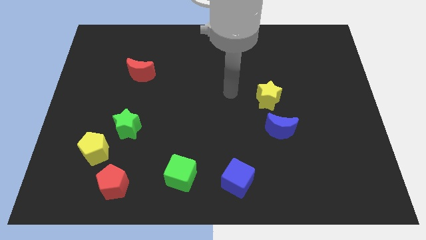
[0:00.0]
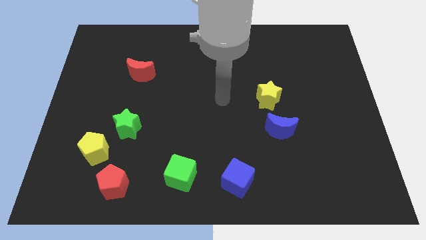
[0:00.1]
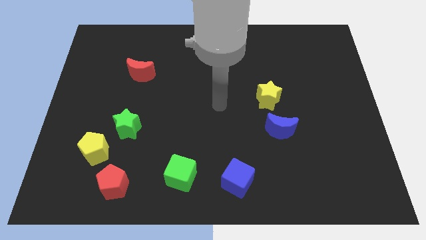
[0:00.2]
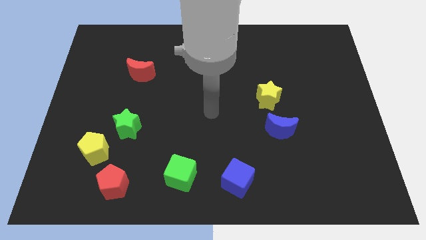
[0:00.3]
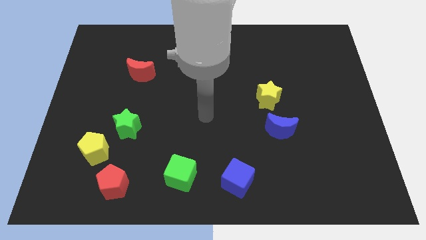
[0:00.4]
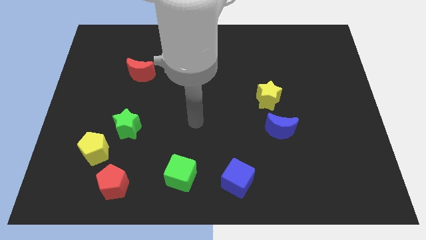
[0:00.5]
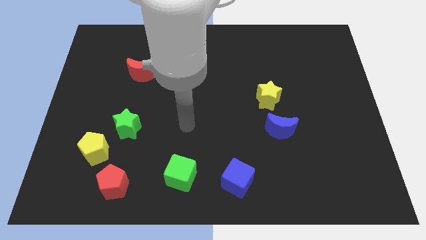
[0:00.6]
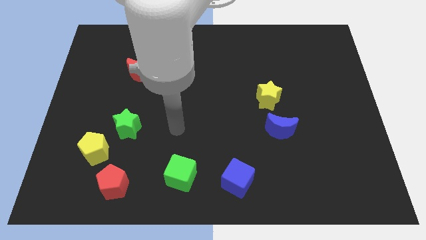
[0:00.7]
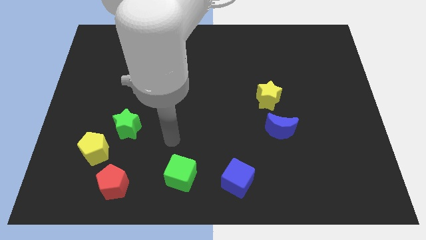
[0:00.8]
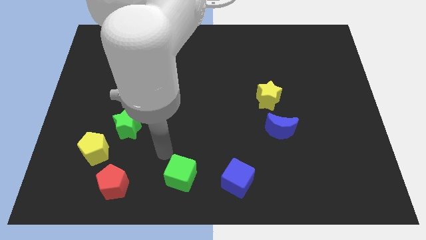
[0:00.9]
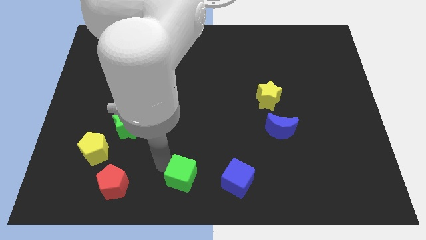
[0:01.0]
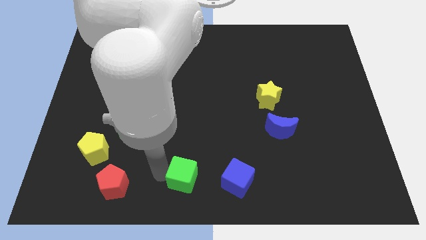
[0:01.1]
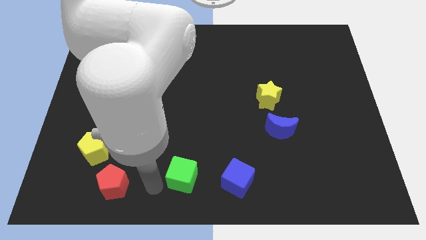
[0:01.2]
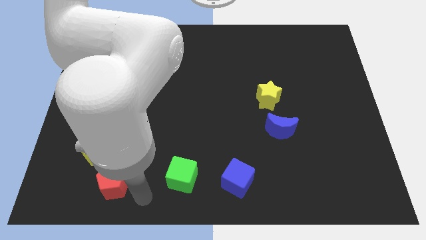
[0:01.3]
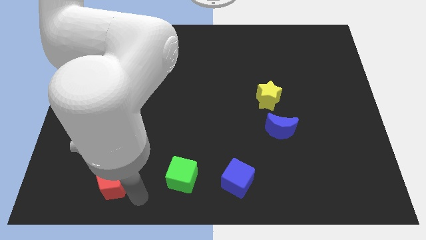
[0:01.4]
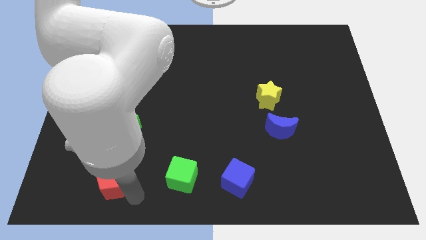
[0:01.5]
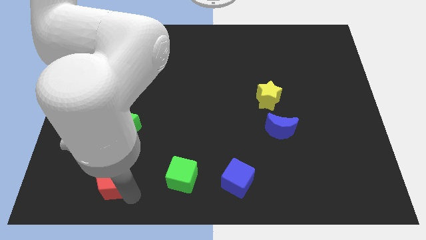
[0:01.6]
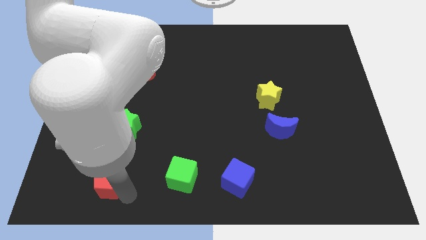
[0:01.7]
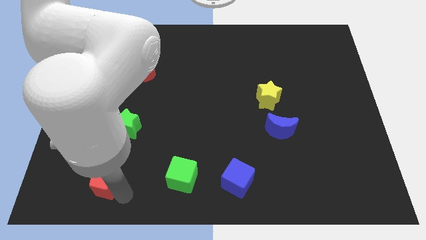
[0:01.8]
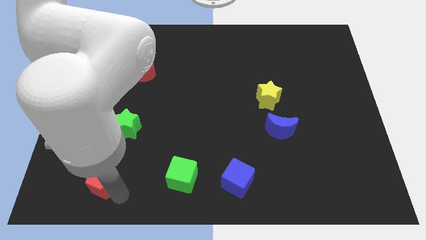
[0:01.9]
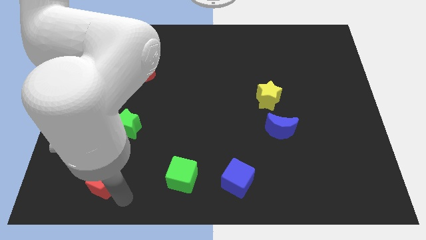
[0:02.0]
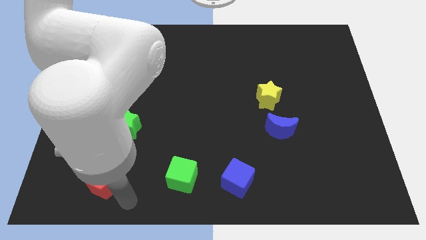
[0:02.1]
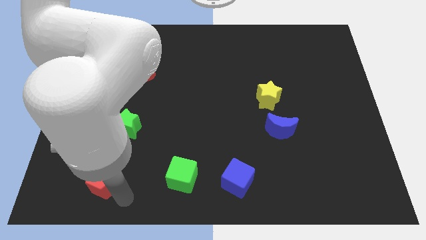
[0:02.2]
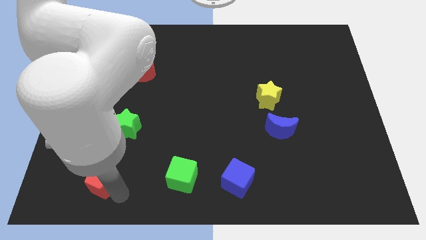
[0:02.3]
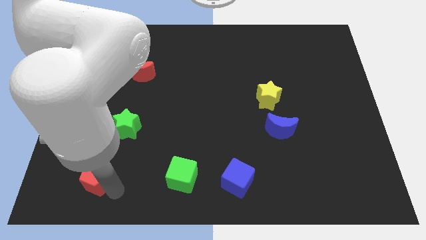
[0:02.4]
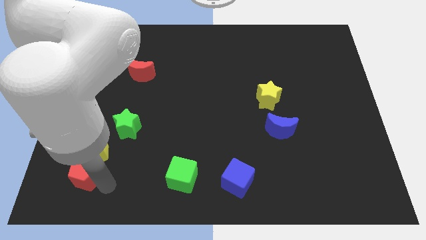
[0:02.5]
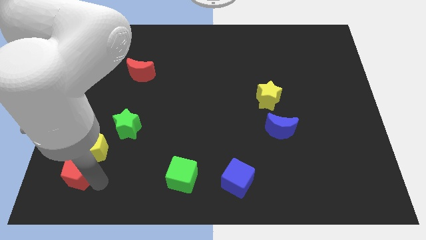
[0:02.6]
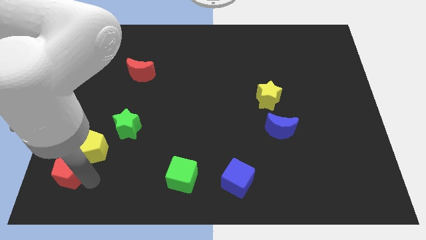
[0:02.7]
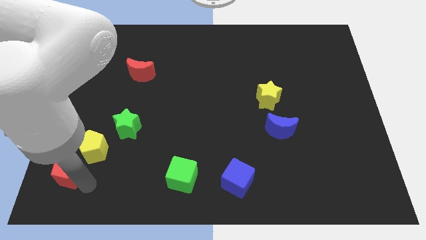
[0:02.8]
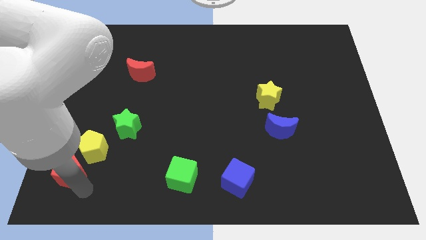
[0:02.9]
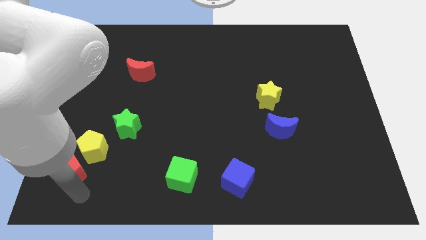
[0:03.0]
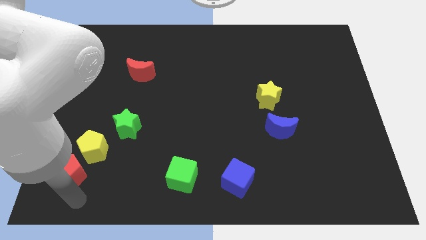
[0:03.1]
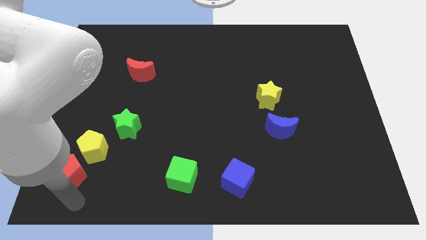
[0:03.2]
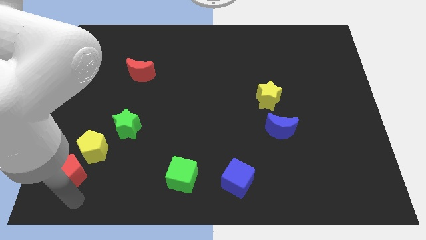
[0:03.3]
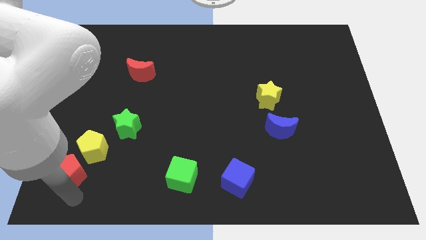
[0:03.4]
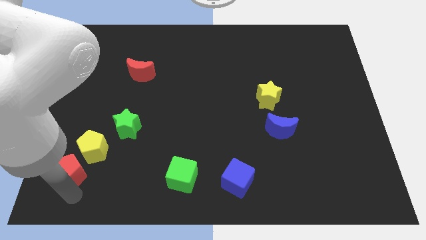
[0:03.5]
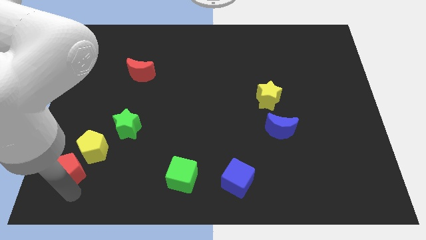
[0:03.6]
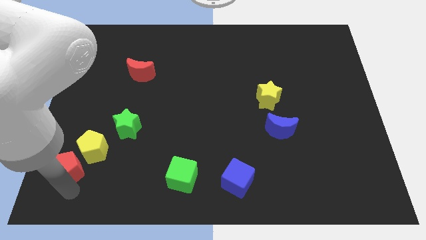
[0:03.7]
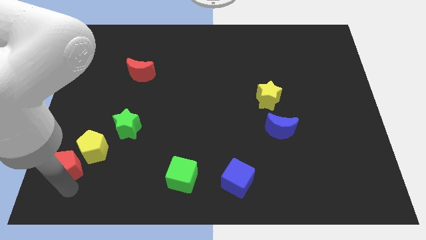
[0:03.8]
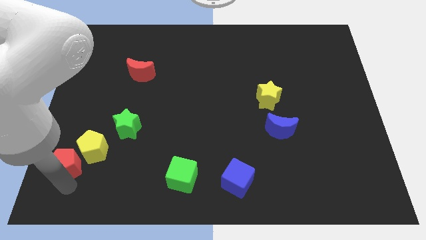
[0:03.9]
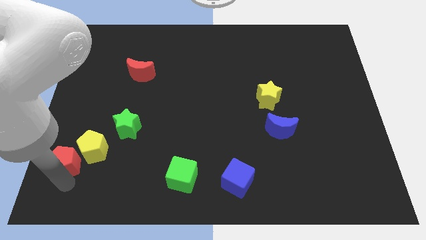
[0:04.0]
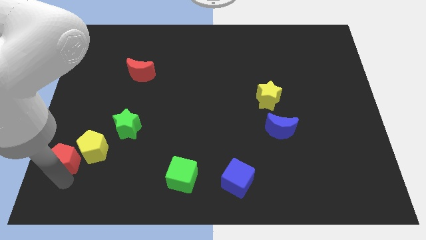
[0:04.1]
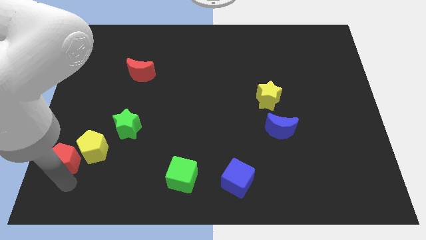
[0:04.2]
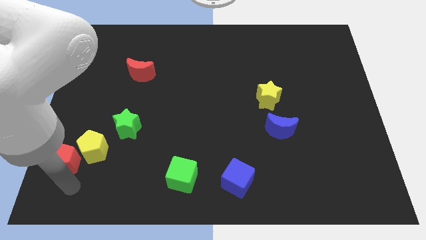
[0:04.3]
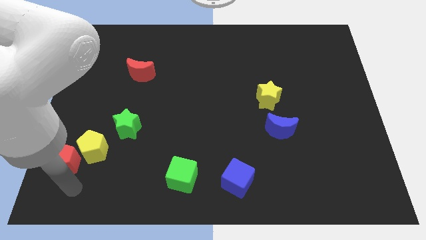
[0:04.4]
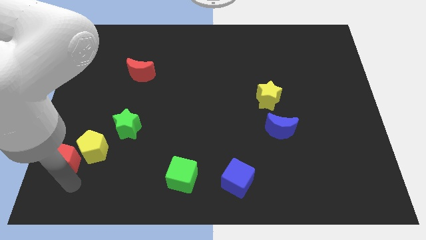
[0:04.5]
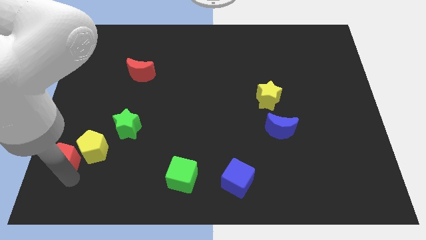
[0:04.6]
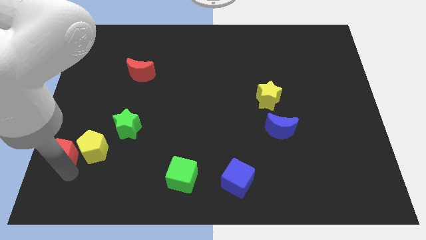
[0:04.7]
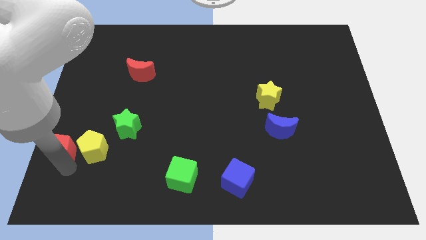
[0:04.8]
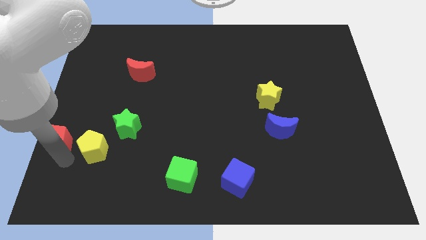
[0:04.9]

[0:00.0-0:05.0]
slide the red pentagon to the left side of the board

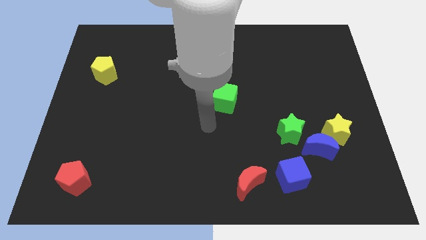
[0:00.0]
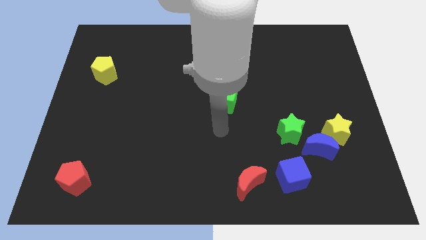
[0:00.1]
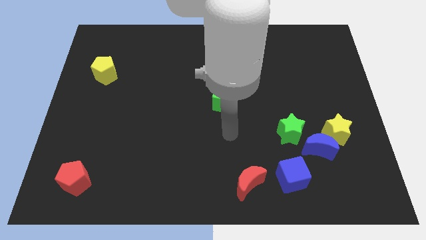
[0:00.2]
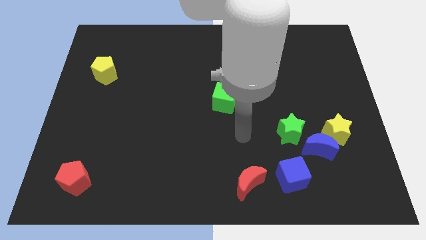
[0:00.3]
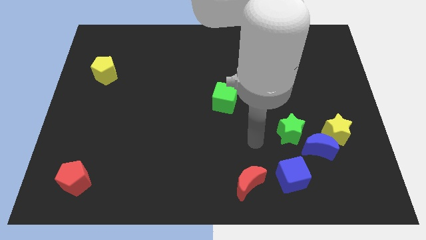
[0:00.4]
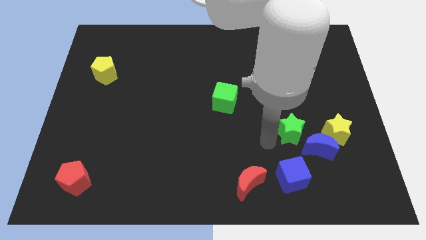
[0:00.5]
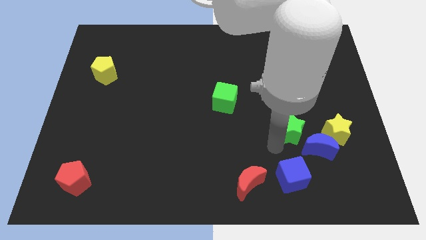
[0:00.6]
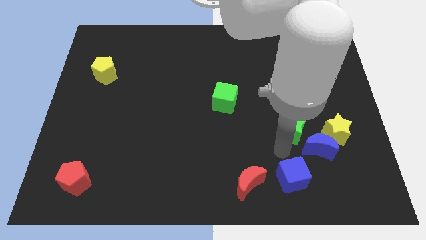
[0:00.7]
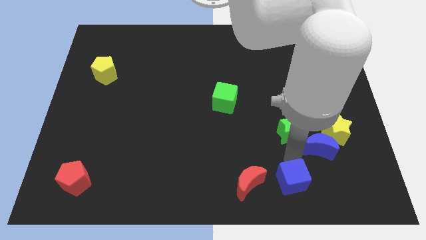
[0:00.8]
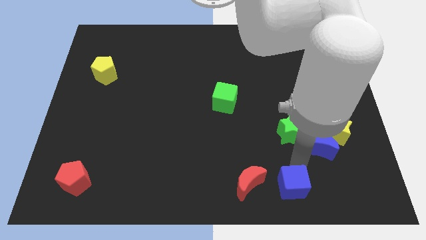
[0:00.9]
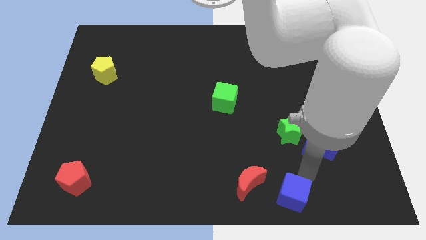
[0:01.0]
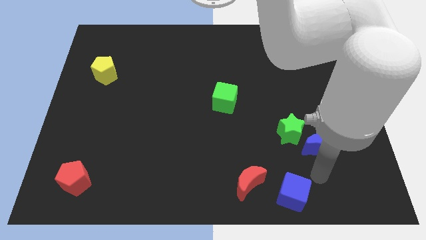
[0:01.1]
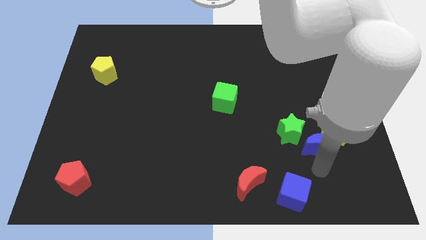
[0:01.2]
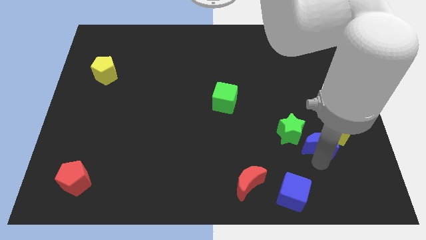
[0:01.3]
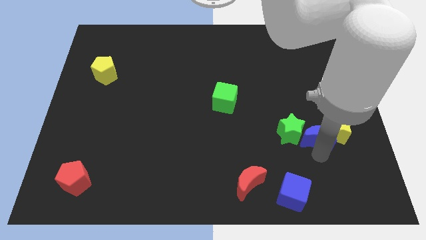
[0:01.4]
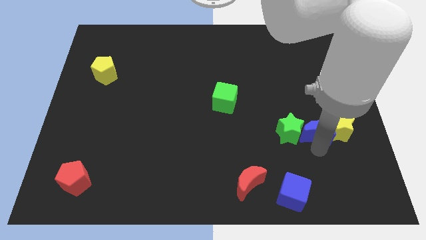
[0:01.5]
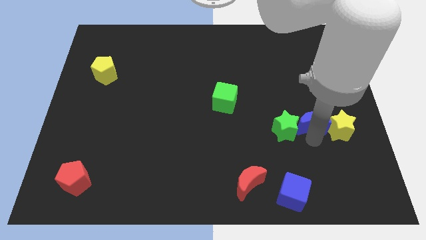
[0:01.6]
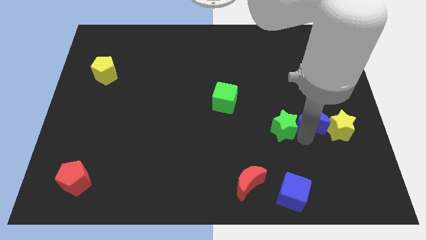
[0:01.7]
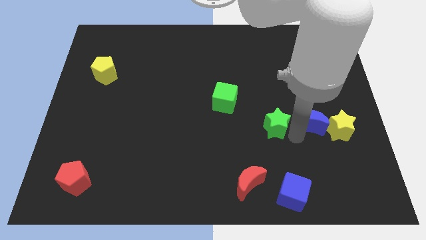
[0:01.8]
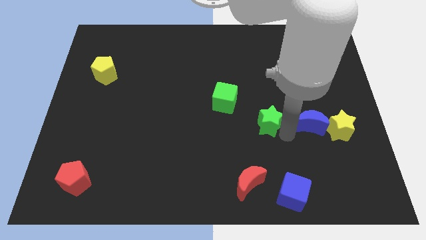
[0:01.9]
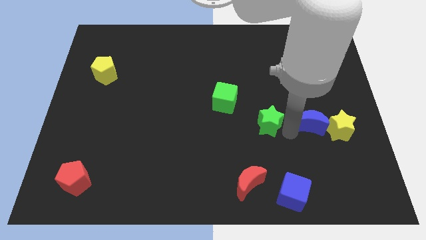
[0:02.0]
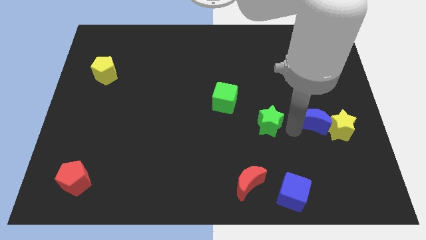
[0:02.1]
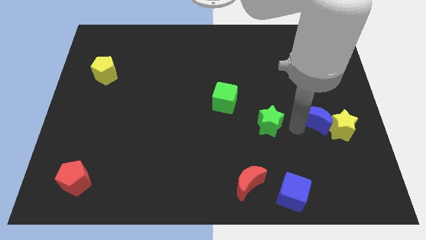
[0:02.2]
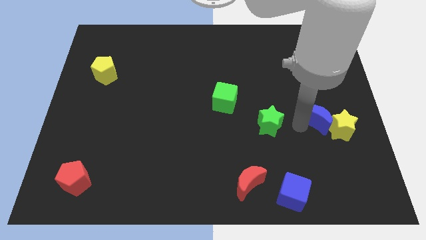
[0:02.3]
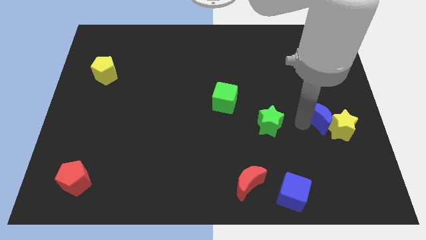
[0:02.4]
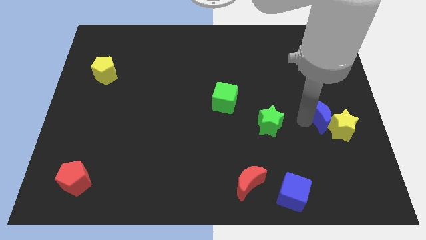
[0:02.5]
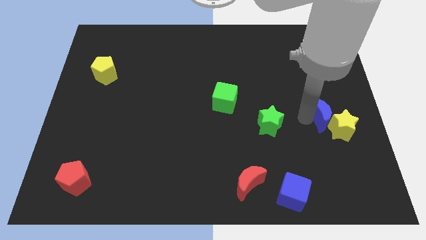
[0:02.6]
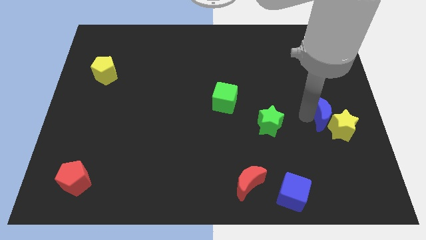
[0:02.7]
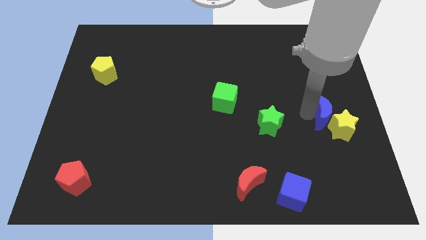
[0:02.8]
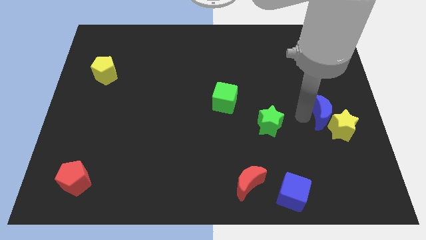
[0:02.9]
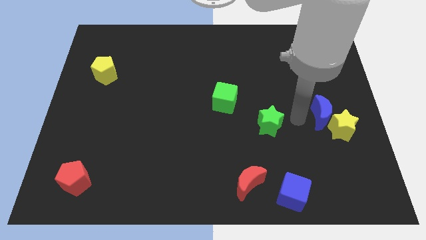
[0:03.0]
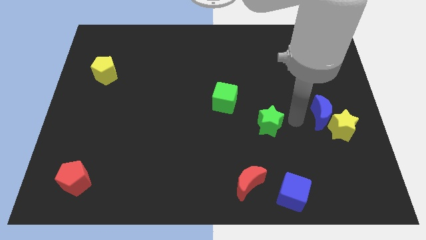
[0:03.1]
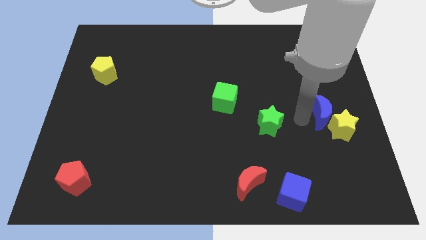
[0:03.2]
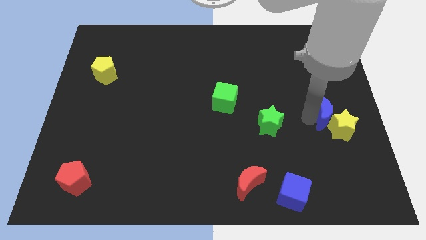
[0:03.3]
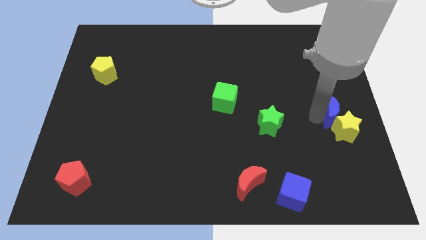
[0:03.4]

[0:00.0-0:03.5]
push the blue moon to the right side
